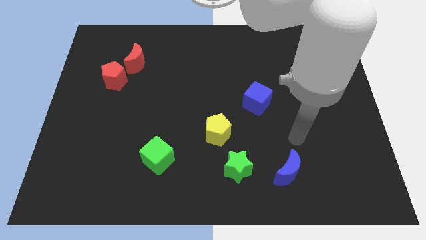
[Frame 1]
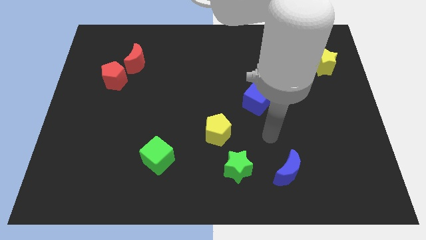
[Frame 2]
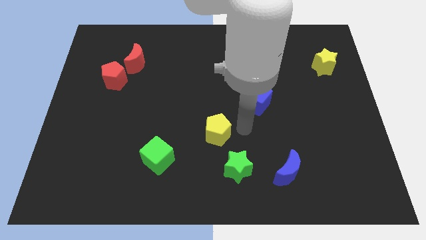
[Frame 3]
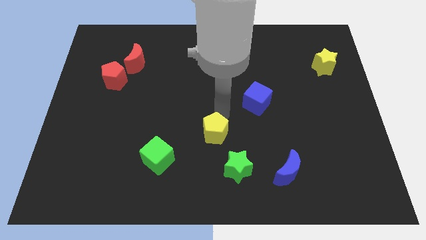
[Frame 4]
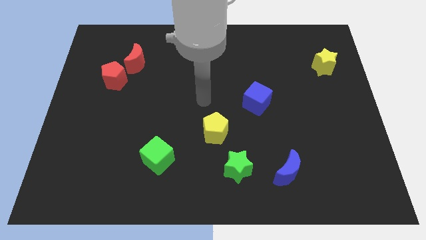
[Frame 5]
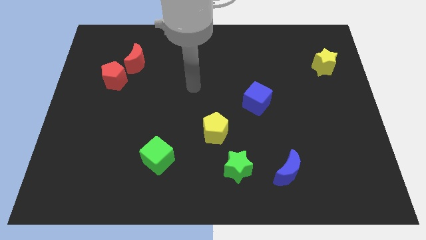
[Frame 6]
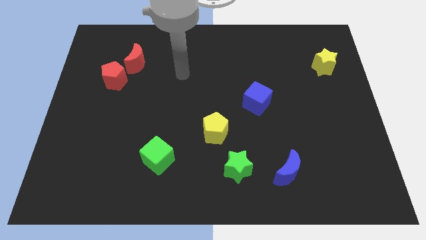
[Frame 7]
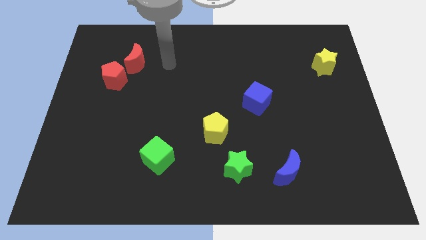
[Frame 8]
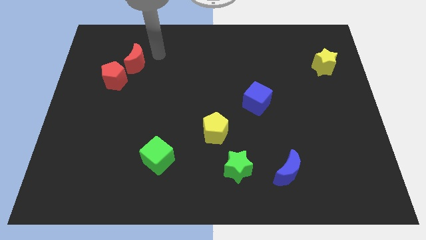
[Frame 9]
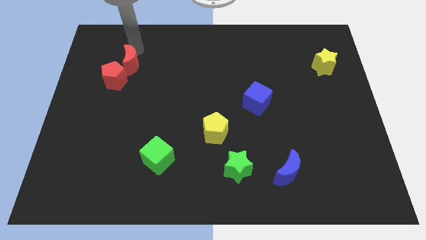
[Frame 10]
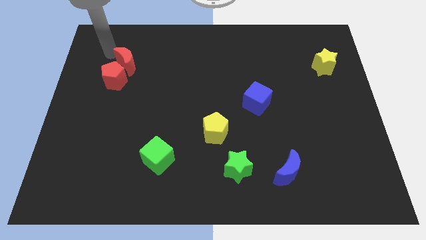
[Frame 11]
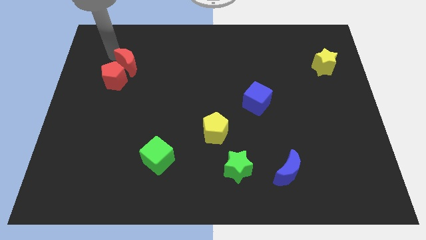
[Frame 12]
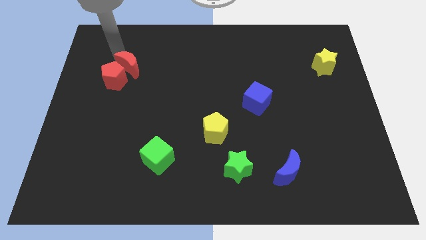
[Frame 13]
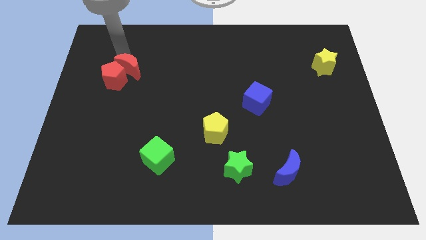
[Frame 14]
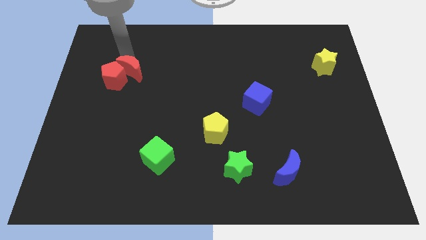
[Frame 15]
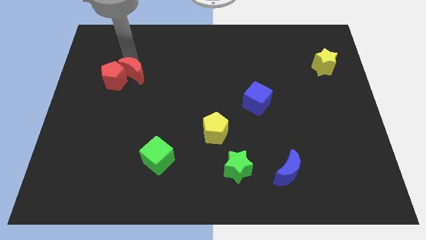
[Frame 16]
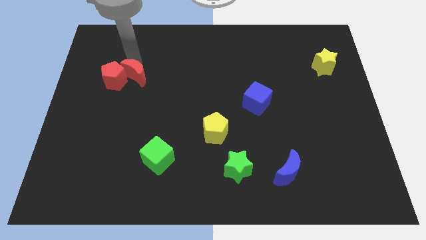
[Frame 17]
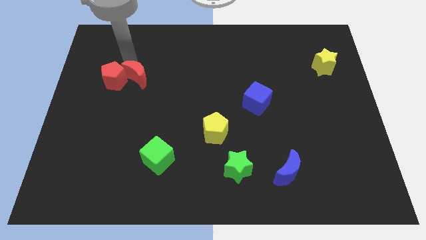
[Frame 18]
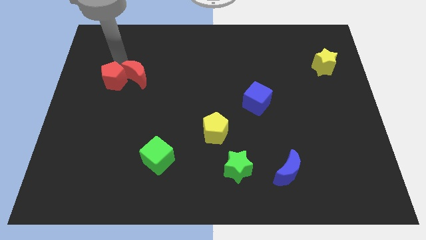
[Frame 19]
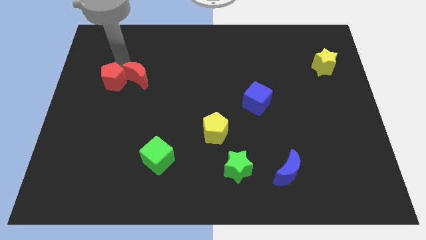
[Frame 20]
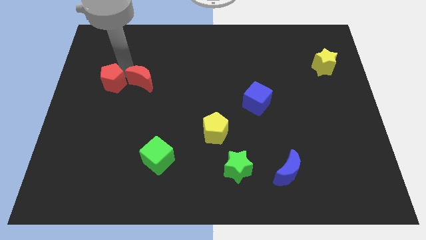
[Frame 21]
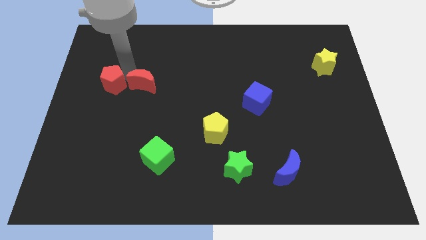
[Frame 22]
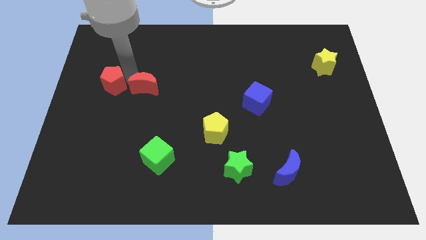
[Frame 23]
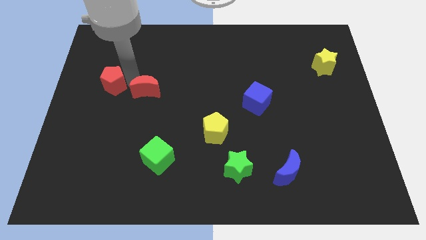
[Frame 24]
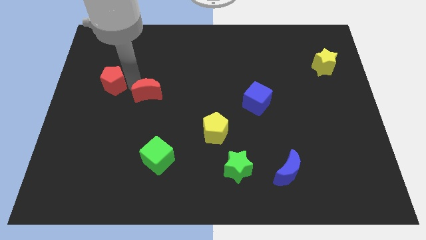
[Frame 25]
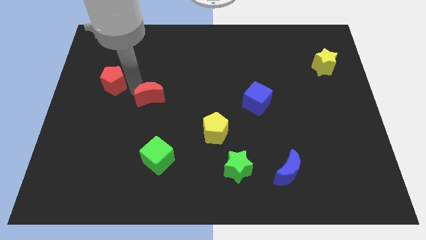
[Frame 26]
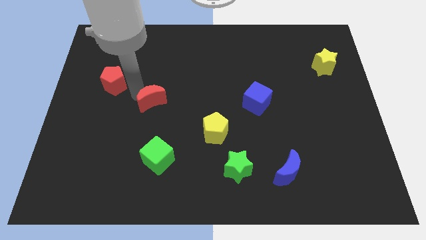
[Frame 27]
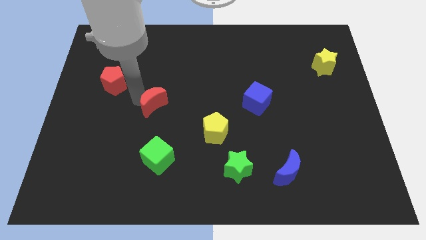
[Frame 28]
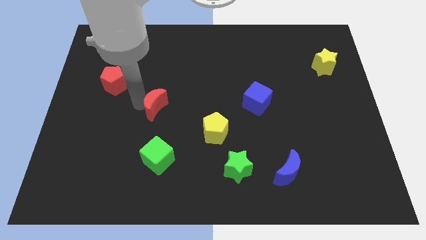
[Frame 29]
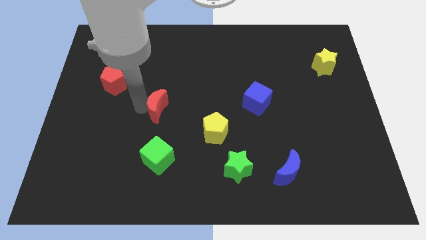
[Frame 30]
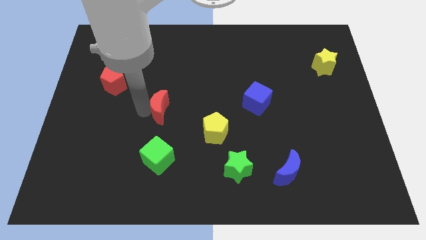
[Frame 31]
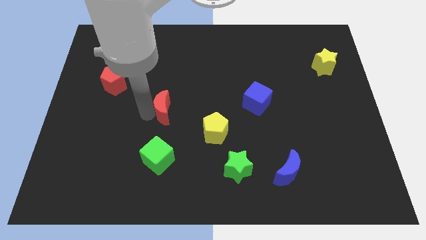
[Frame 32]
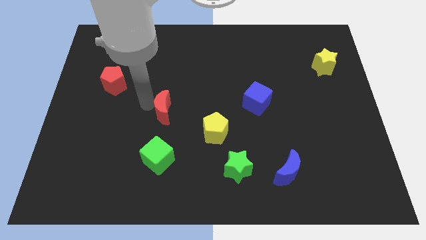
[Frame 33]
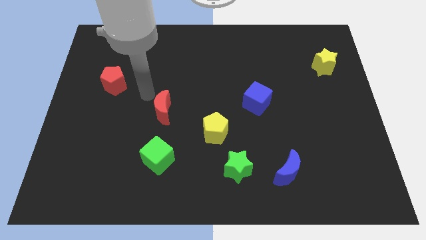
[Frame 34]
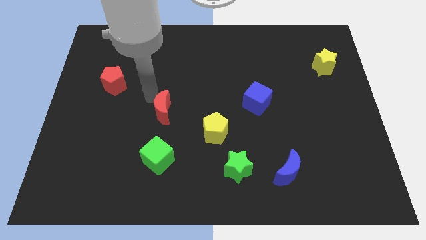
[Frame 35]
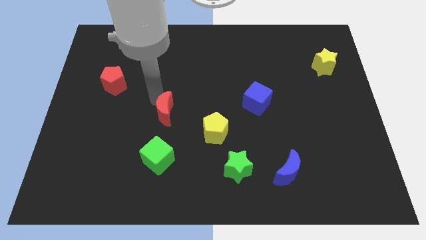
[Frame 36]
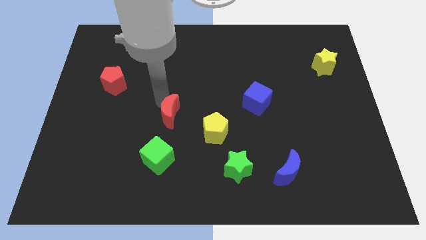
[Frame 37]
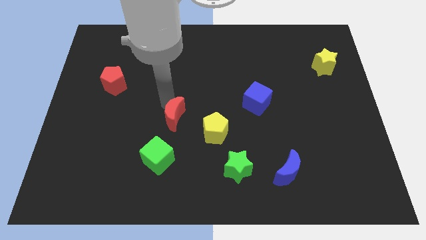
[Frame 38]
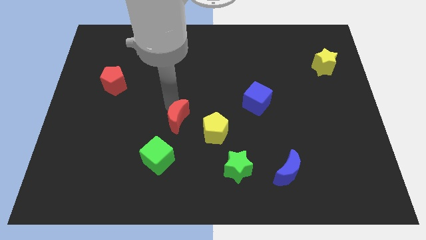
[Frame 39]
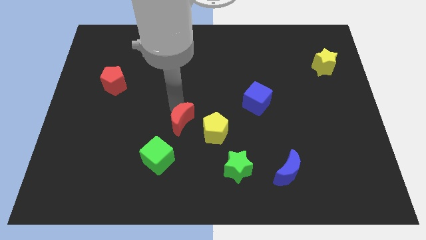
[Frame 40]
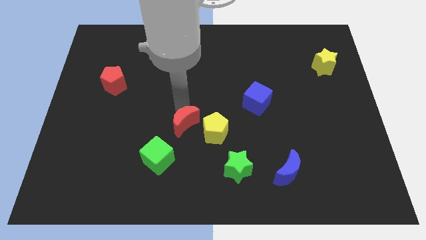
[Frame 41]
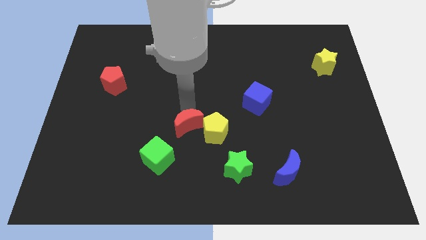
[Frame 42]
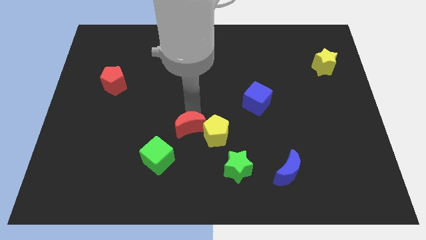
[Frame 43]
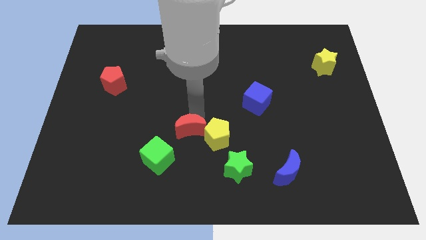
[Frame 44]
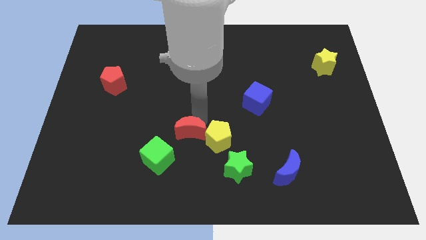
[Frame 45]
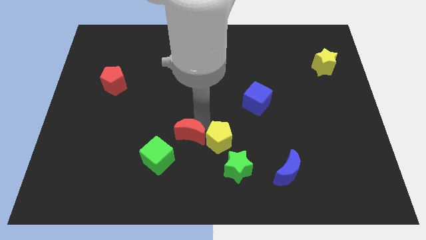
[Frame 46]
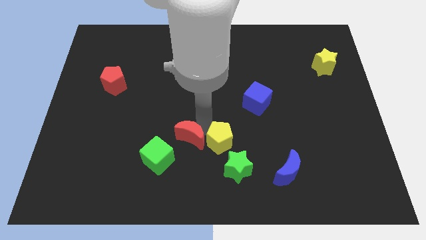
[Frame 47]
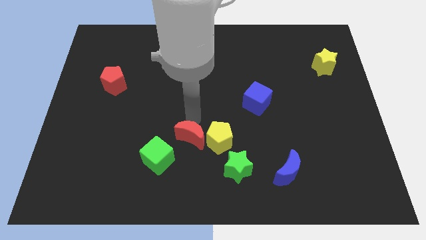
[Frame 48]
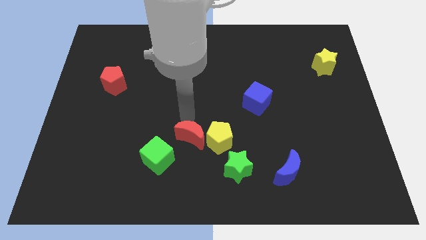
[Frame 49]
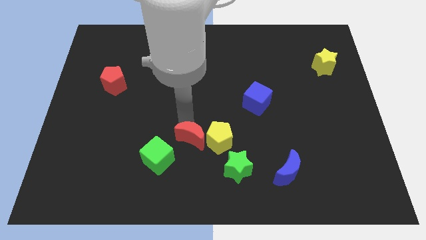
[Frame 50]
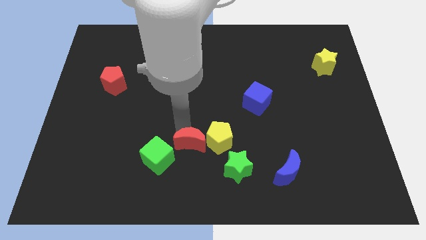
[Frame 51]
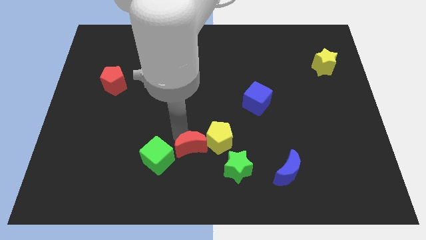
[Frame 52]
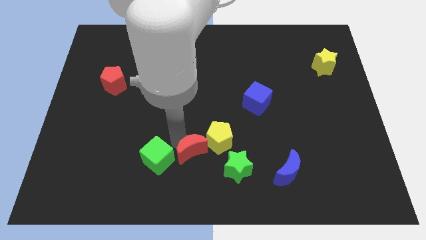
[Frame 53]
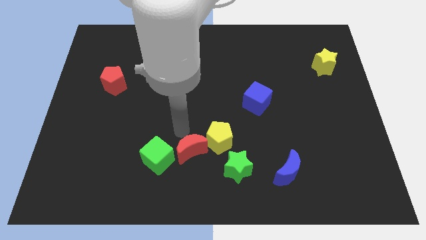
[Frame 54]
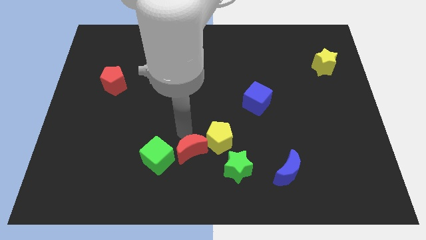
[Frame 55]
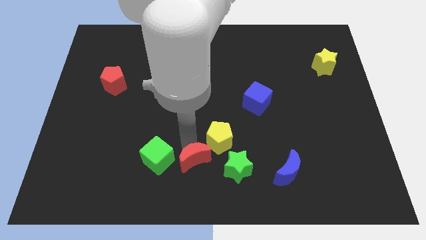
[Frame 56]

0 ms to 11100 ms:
push the red moon to the bottom

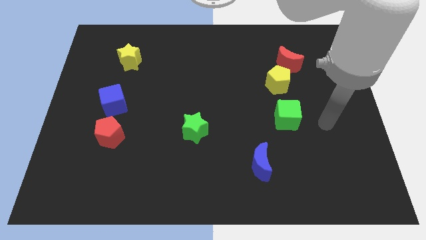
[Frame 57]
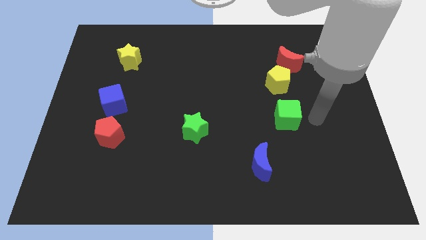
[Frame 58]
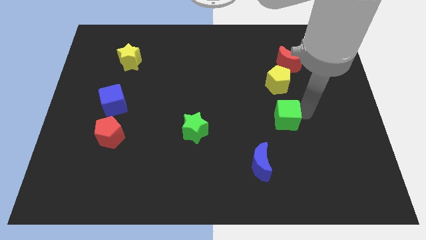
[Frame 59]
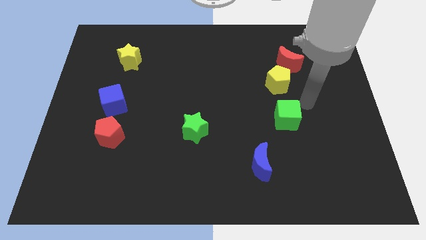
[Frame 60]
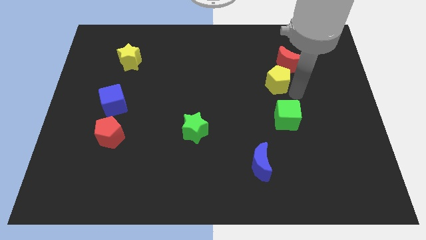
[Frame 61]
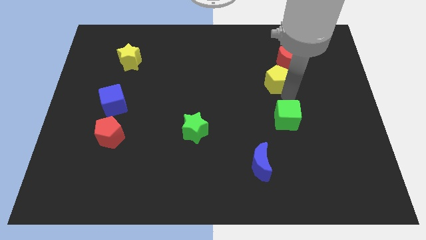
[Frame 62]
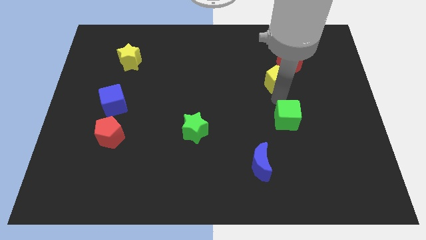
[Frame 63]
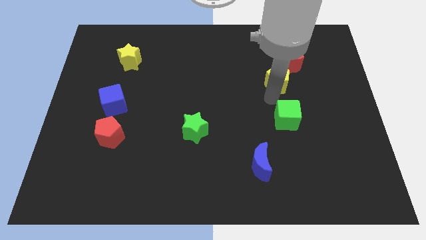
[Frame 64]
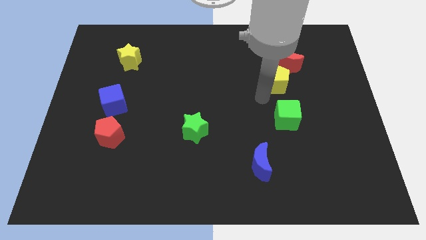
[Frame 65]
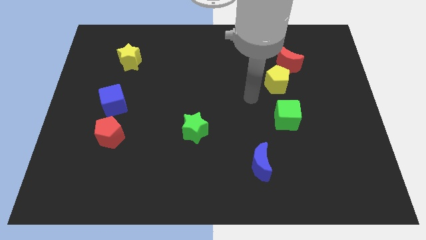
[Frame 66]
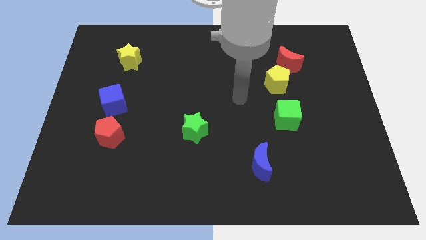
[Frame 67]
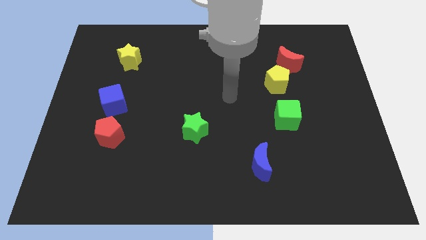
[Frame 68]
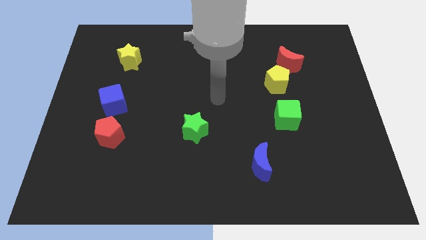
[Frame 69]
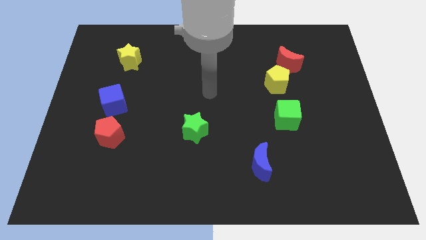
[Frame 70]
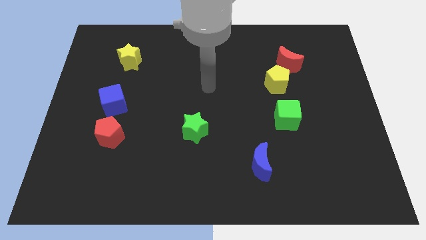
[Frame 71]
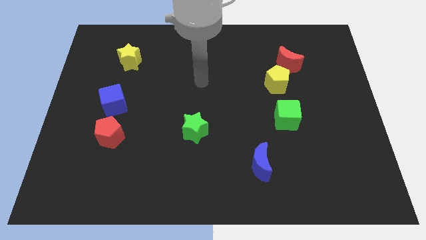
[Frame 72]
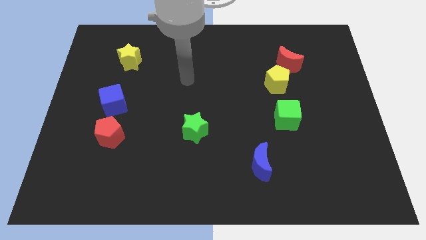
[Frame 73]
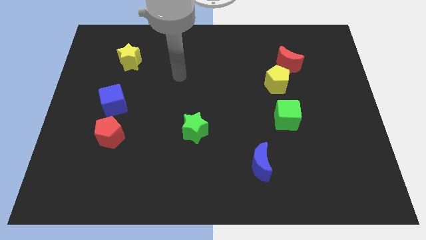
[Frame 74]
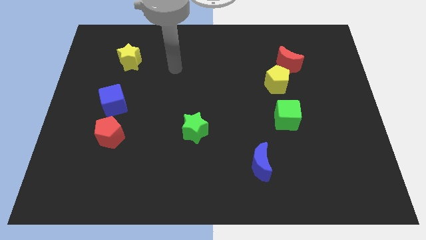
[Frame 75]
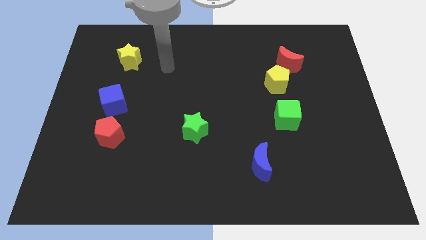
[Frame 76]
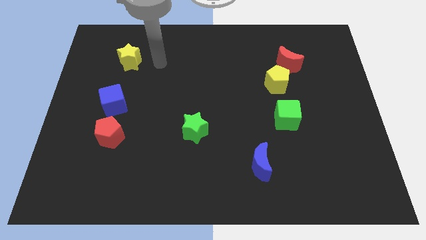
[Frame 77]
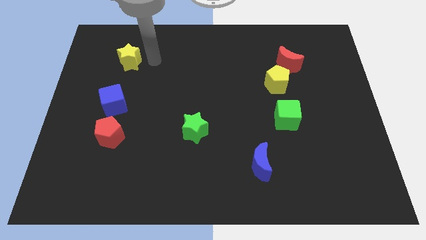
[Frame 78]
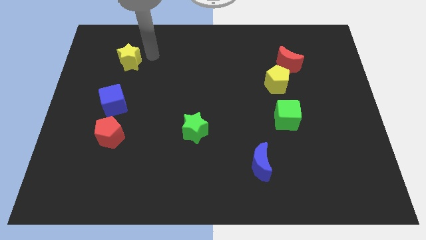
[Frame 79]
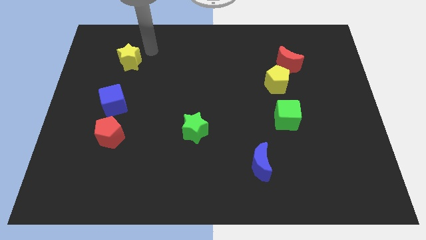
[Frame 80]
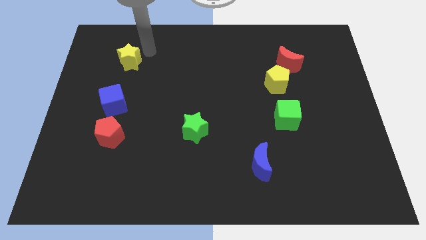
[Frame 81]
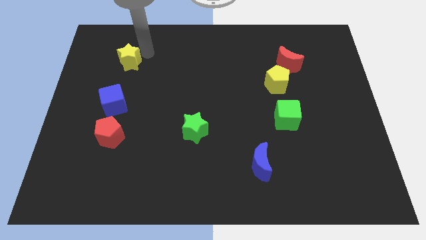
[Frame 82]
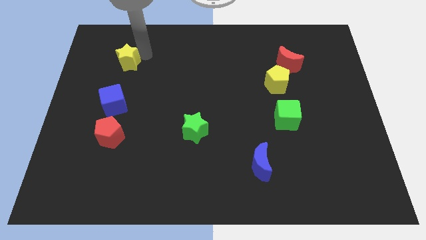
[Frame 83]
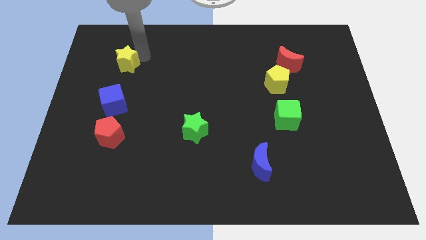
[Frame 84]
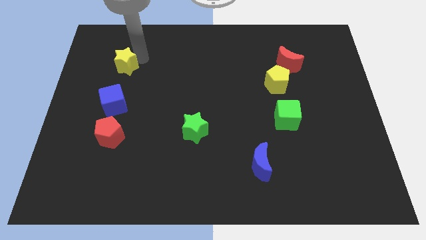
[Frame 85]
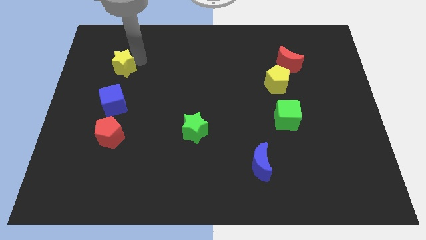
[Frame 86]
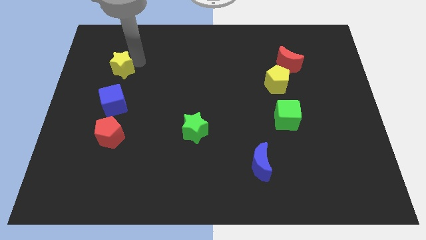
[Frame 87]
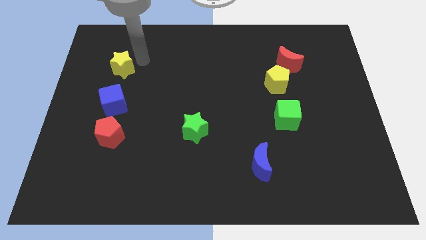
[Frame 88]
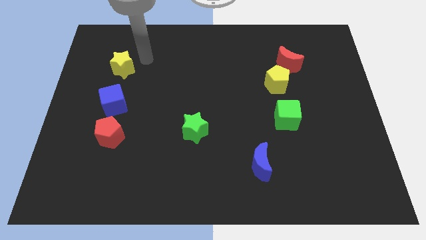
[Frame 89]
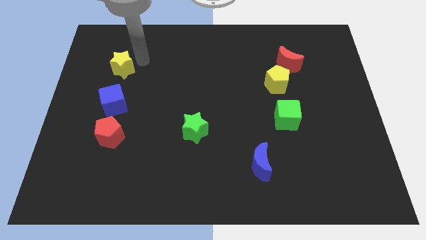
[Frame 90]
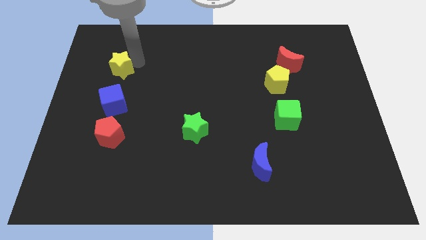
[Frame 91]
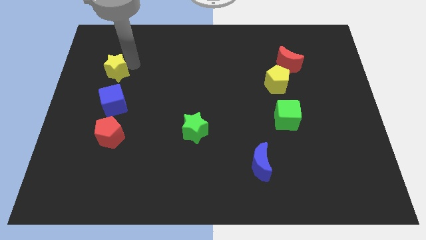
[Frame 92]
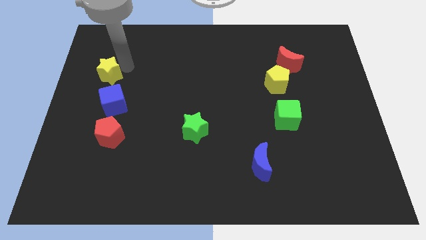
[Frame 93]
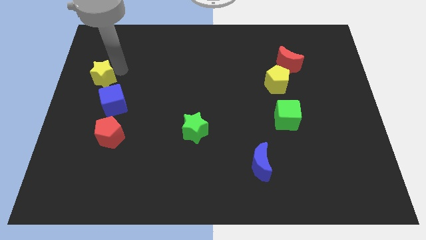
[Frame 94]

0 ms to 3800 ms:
slide the yellow star to the center left
